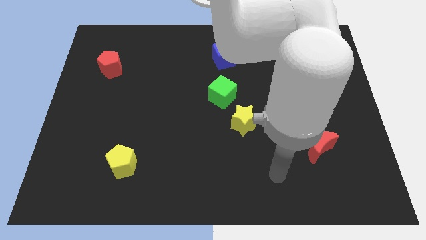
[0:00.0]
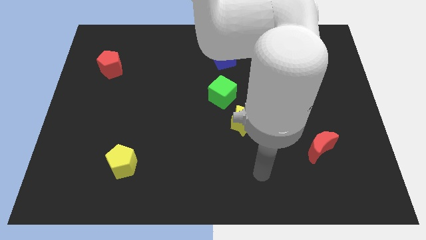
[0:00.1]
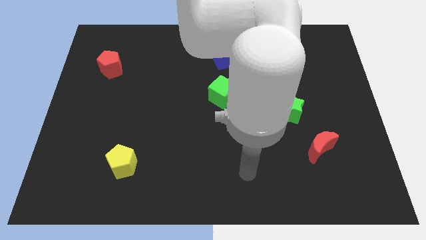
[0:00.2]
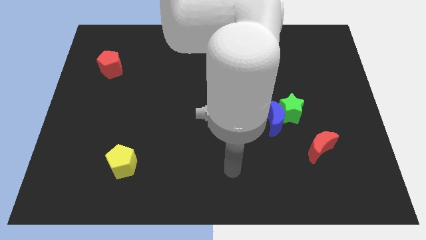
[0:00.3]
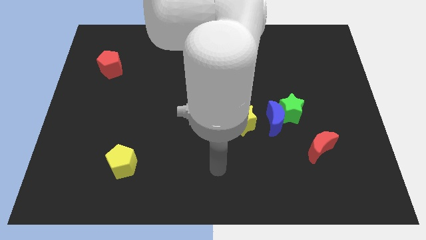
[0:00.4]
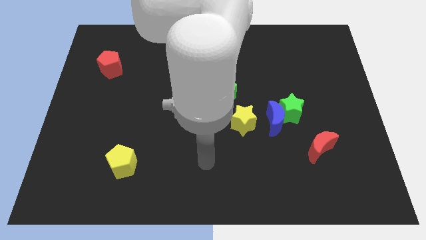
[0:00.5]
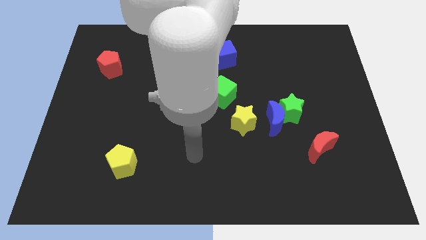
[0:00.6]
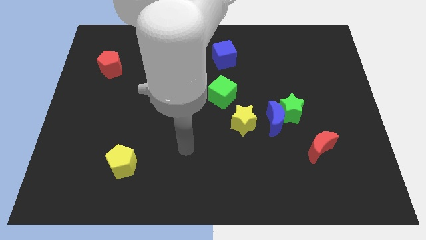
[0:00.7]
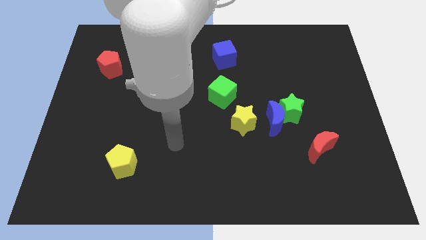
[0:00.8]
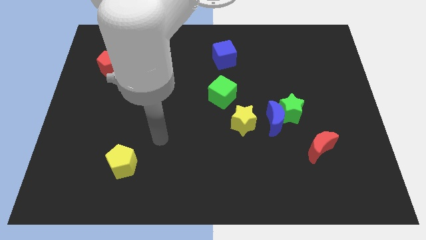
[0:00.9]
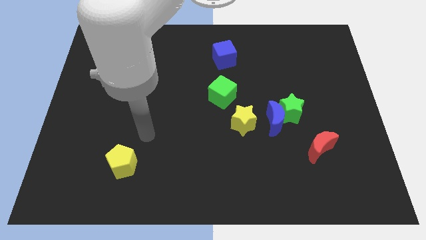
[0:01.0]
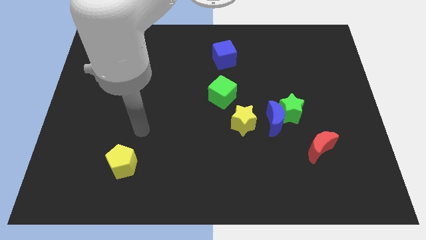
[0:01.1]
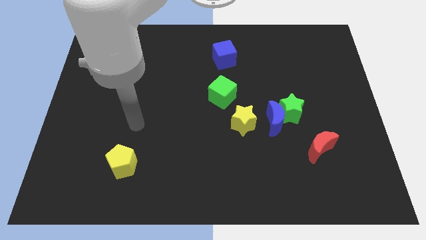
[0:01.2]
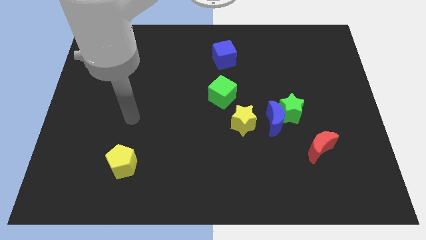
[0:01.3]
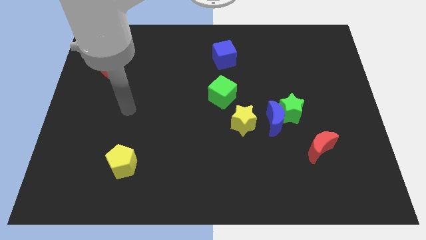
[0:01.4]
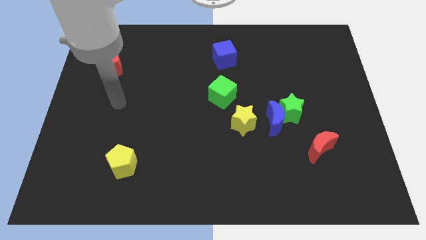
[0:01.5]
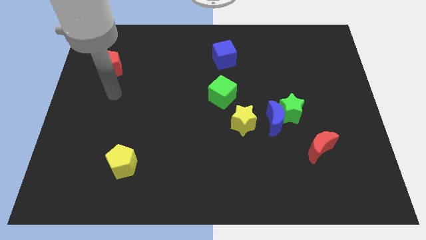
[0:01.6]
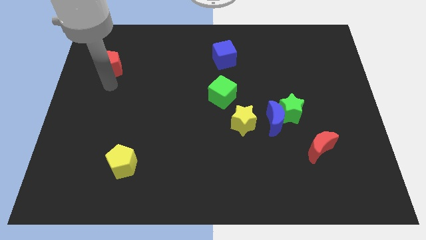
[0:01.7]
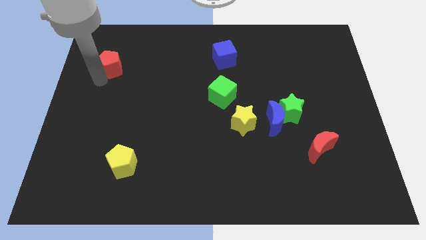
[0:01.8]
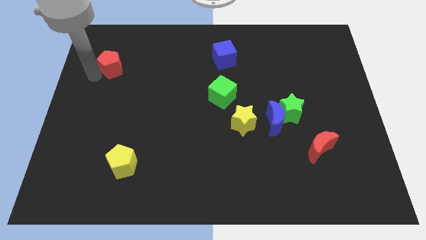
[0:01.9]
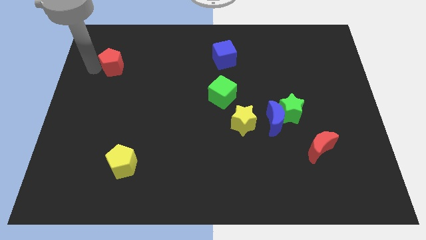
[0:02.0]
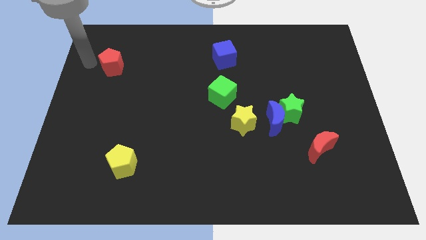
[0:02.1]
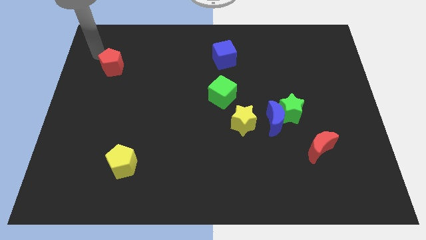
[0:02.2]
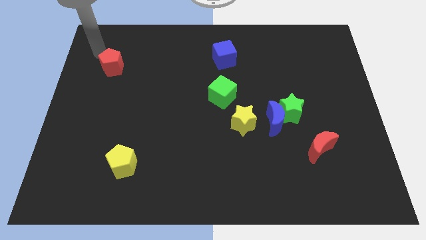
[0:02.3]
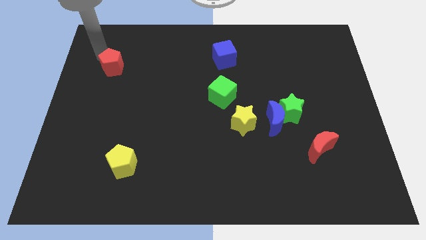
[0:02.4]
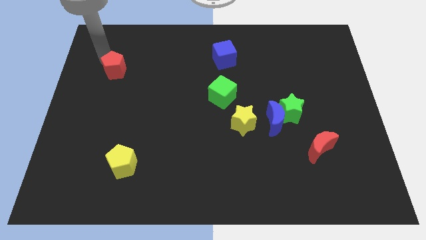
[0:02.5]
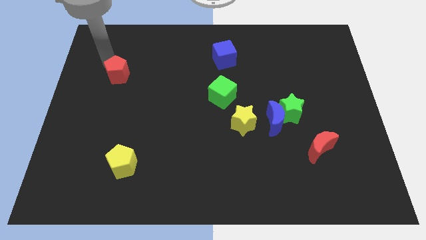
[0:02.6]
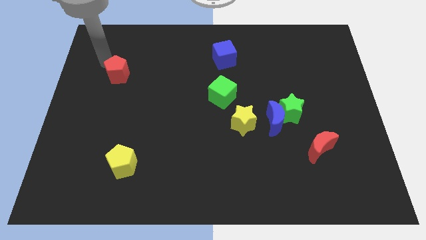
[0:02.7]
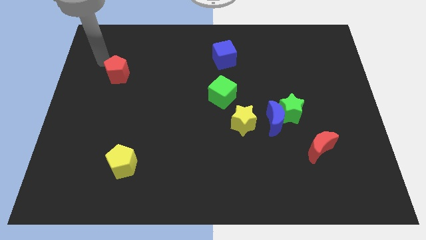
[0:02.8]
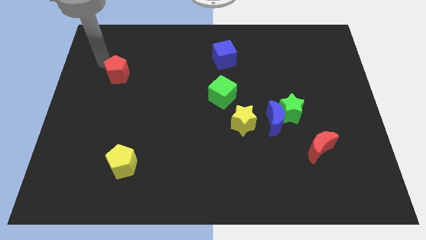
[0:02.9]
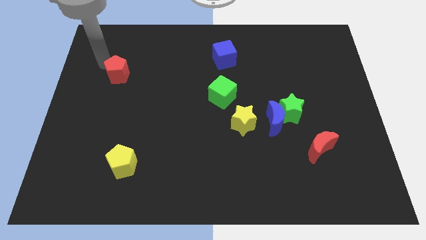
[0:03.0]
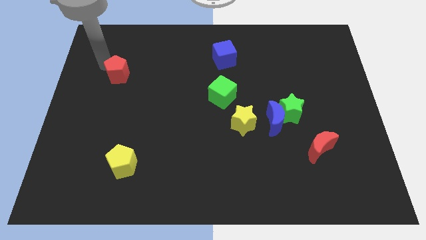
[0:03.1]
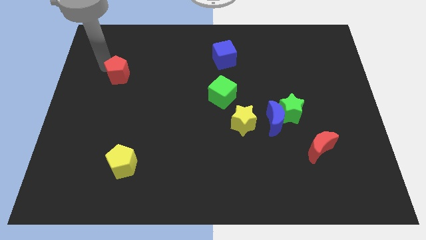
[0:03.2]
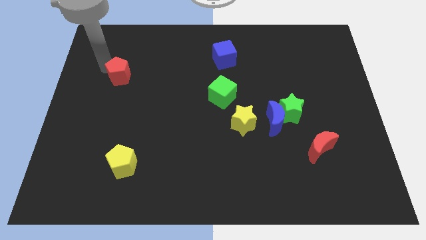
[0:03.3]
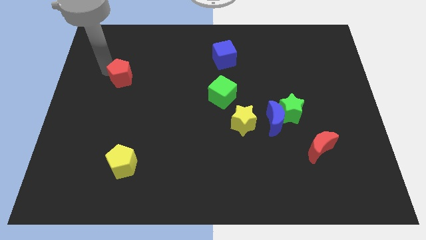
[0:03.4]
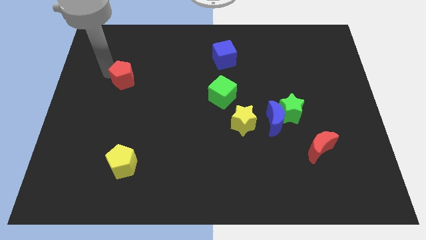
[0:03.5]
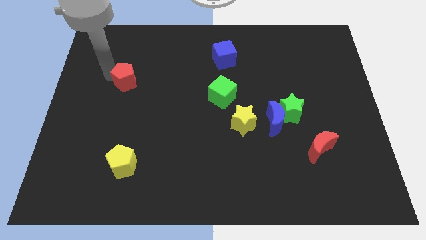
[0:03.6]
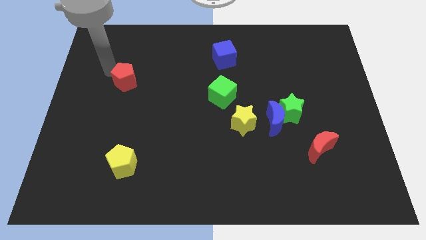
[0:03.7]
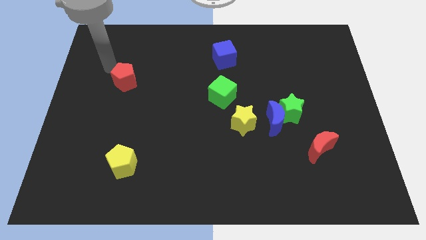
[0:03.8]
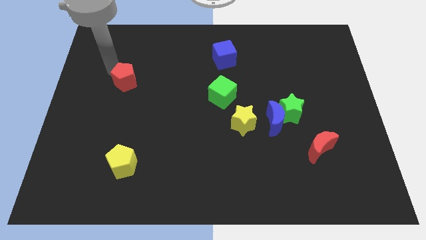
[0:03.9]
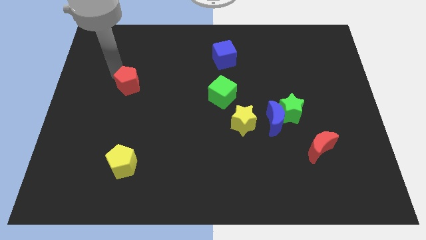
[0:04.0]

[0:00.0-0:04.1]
slightly move the red pentagon down and then to the right

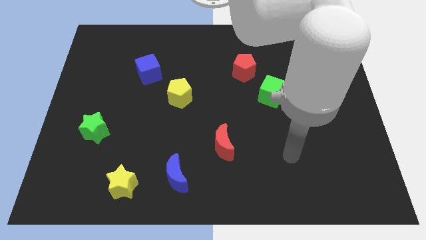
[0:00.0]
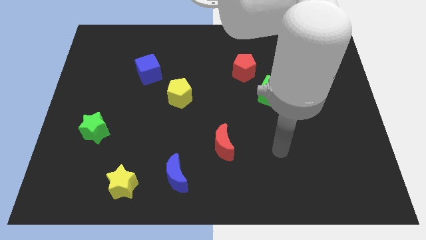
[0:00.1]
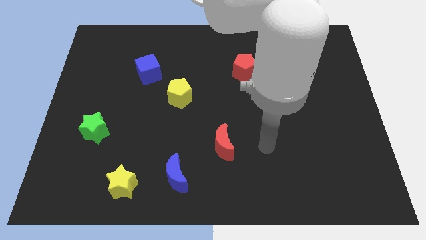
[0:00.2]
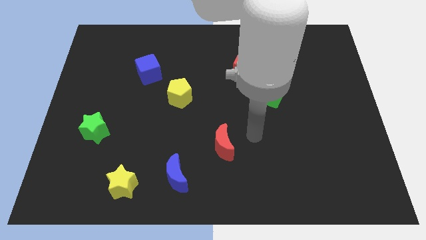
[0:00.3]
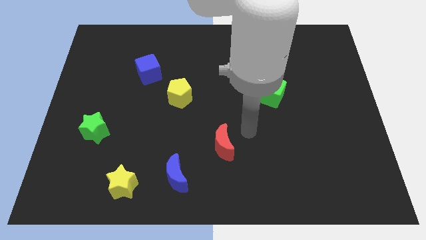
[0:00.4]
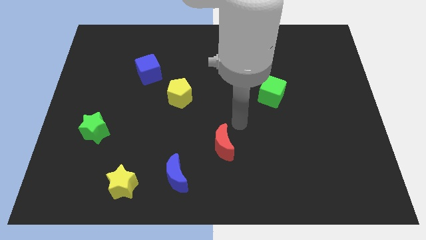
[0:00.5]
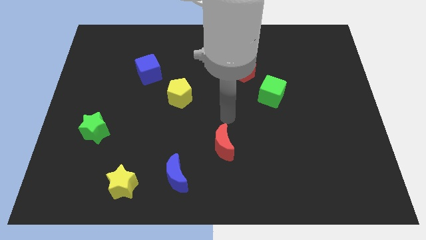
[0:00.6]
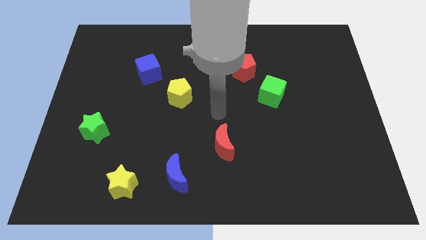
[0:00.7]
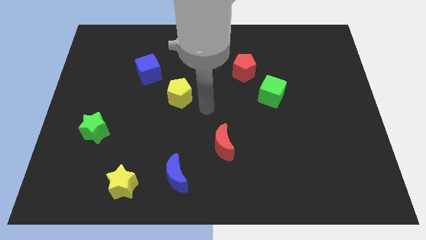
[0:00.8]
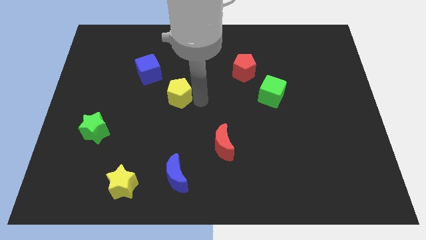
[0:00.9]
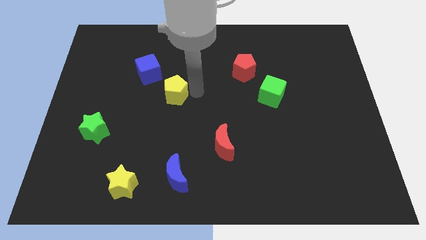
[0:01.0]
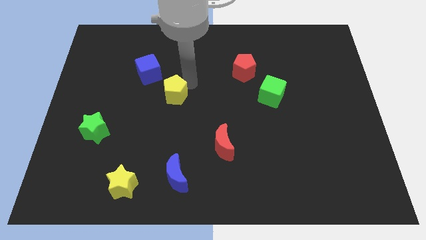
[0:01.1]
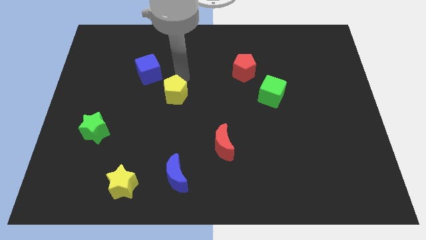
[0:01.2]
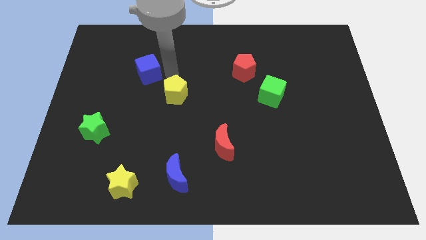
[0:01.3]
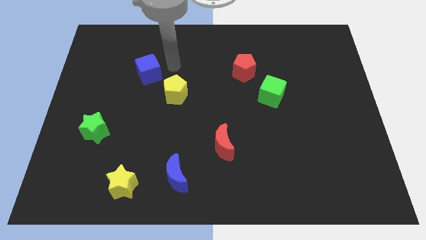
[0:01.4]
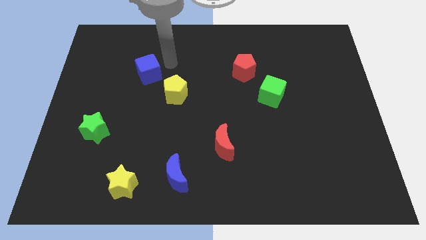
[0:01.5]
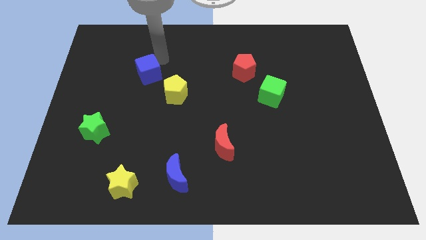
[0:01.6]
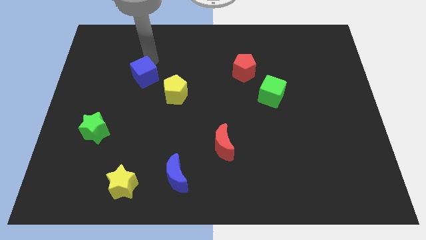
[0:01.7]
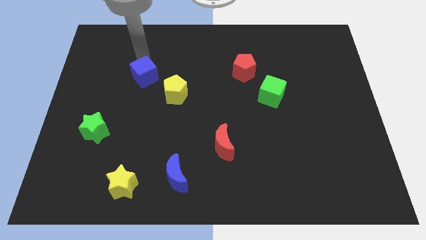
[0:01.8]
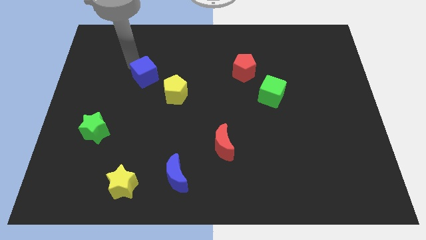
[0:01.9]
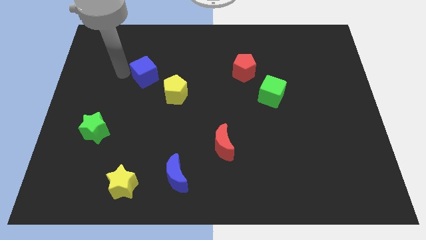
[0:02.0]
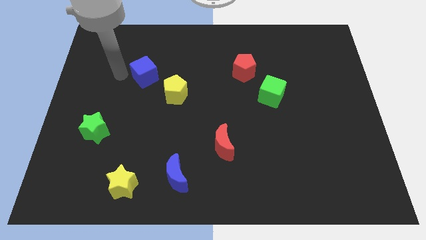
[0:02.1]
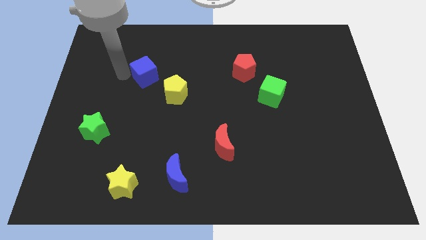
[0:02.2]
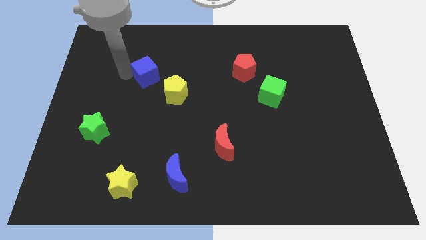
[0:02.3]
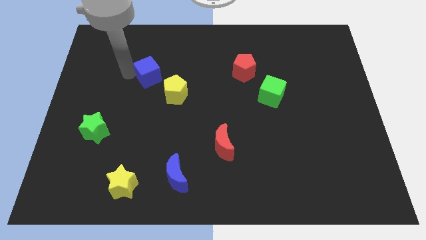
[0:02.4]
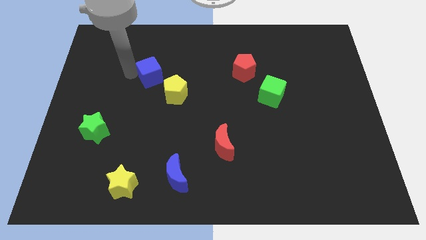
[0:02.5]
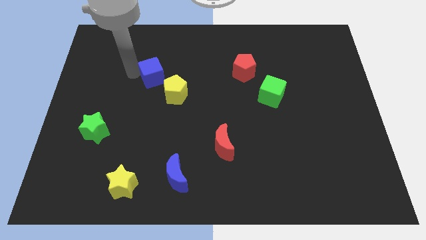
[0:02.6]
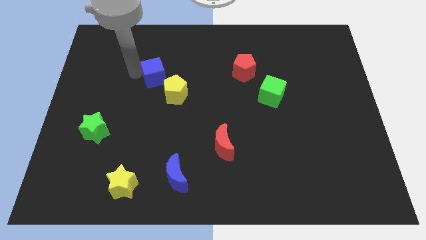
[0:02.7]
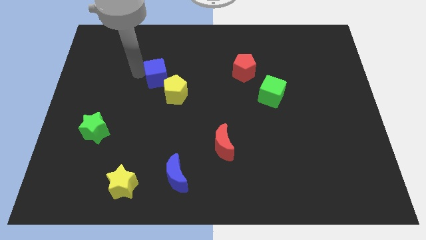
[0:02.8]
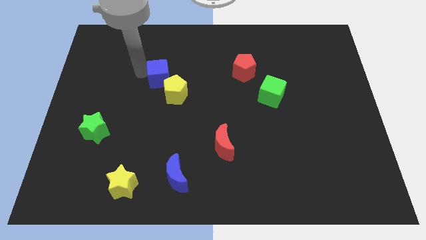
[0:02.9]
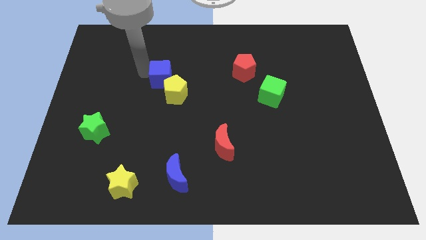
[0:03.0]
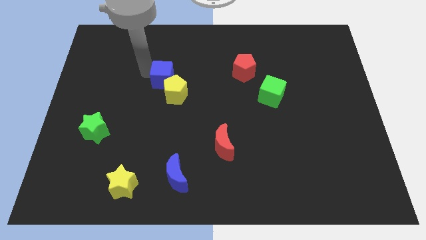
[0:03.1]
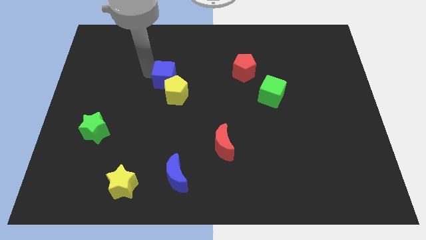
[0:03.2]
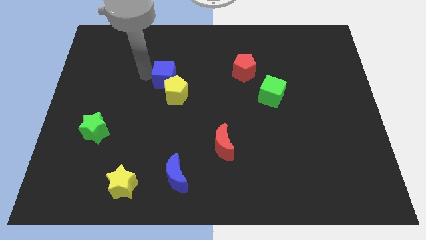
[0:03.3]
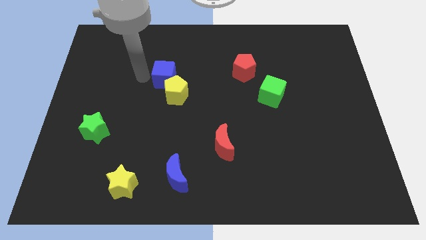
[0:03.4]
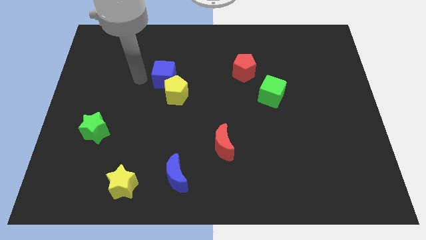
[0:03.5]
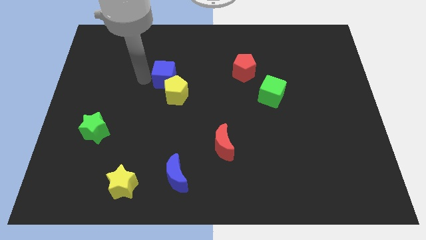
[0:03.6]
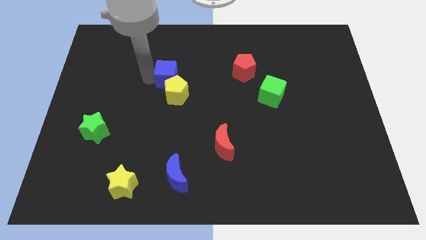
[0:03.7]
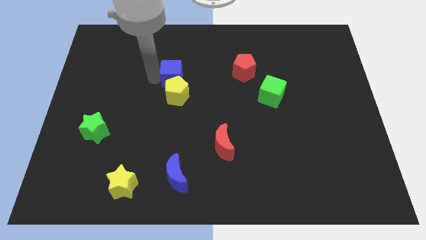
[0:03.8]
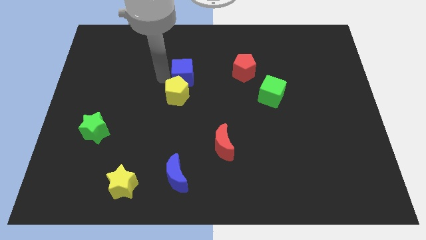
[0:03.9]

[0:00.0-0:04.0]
move the blue cube slightly right
